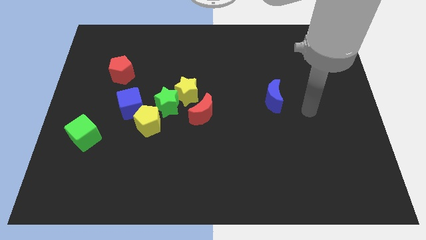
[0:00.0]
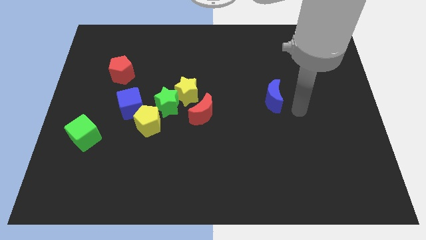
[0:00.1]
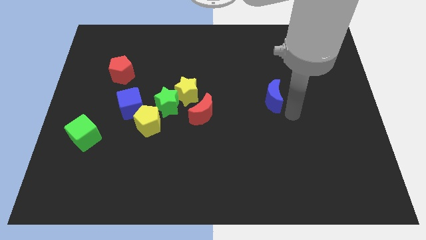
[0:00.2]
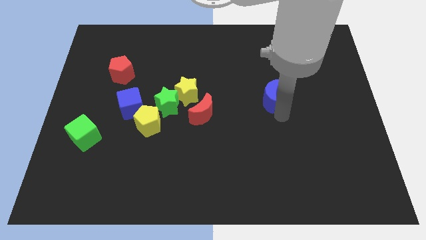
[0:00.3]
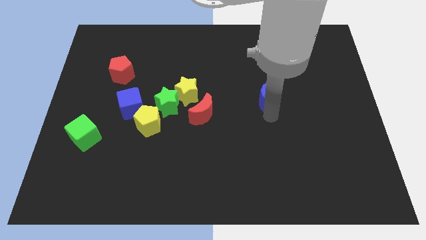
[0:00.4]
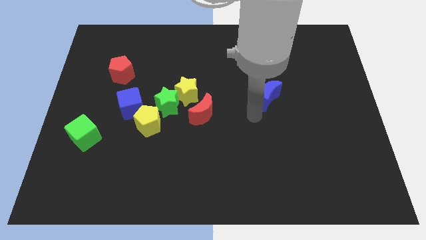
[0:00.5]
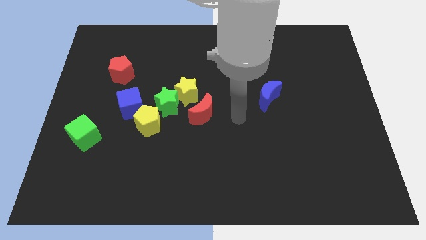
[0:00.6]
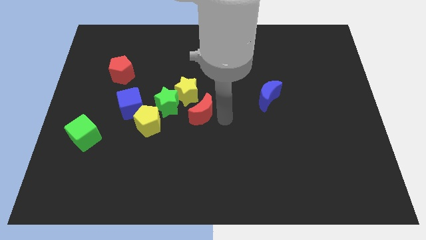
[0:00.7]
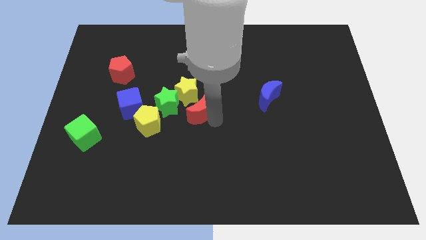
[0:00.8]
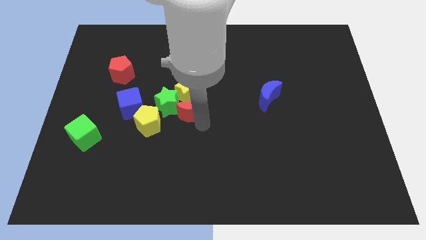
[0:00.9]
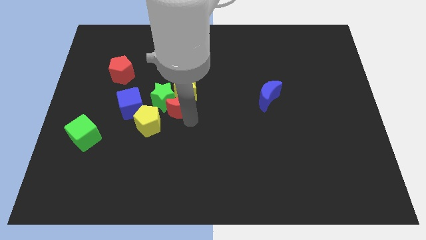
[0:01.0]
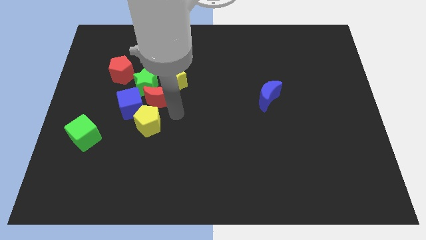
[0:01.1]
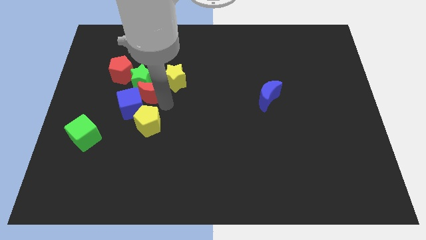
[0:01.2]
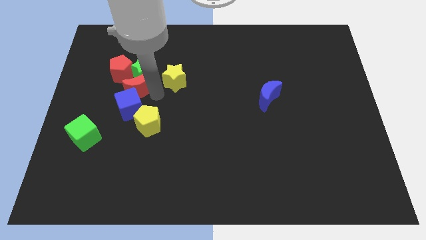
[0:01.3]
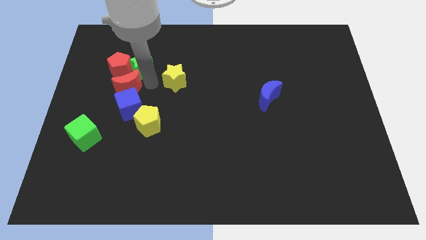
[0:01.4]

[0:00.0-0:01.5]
pull the yellow star apart from the green star and red moon

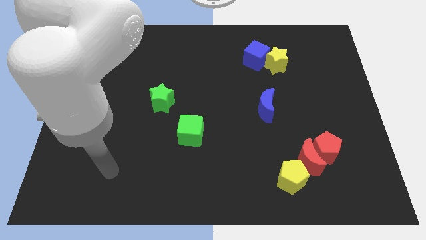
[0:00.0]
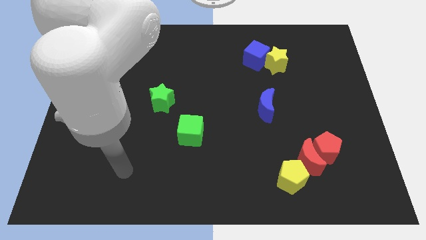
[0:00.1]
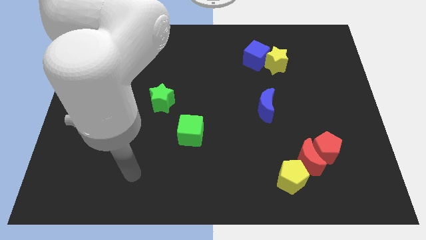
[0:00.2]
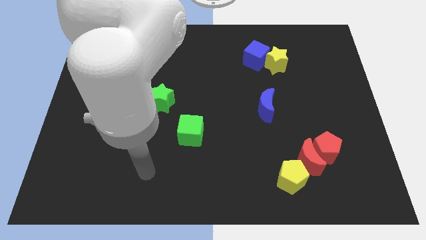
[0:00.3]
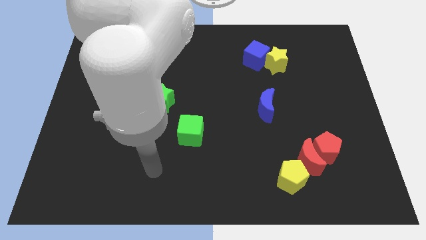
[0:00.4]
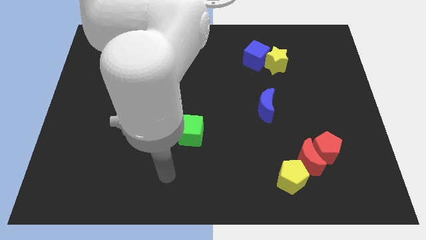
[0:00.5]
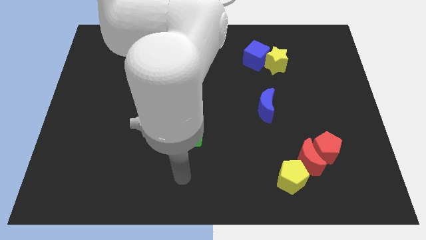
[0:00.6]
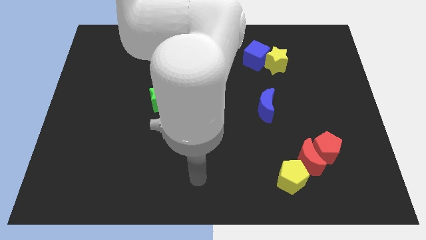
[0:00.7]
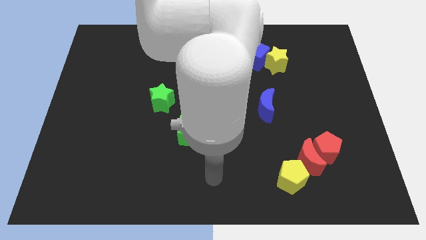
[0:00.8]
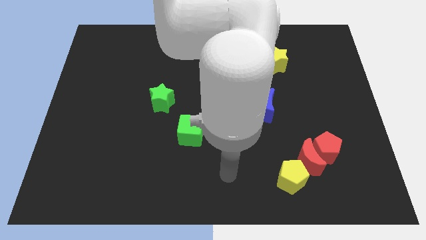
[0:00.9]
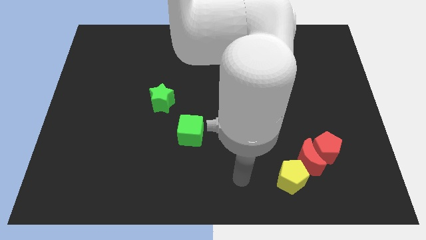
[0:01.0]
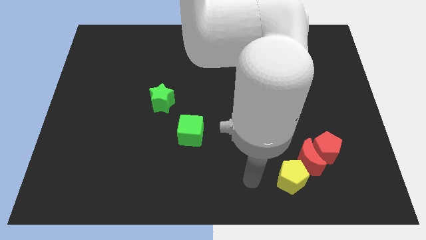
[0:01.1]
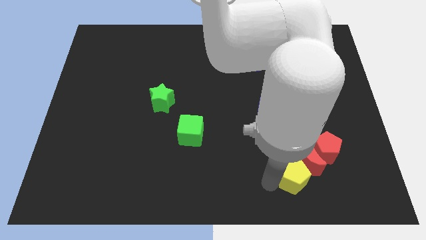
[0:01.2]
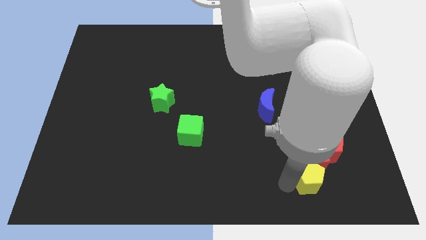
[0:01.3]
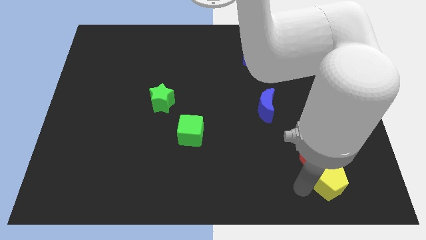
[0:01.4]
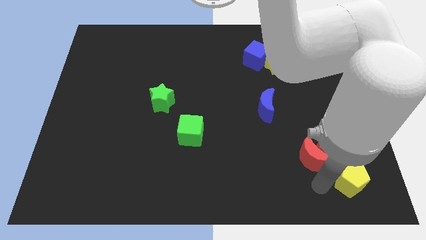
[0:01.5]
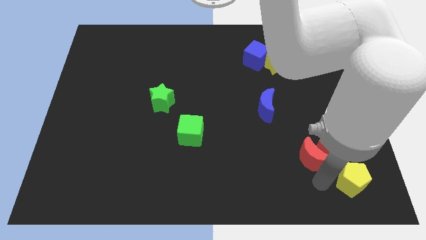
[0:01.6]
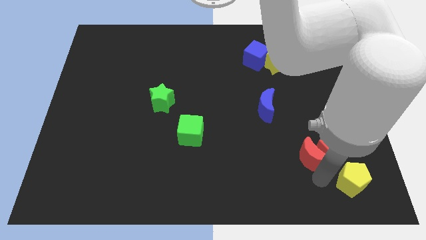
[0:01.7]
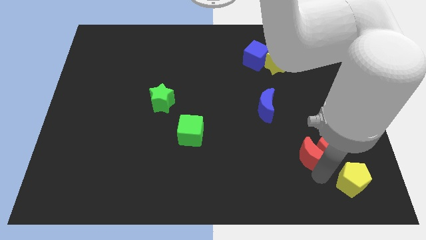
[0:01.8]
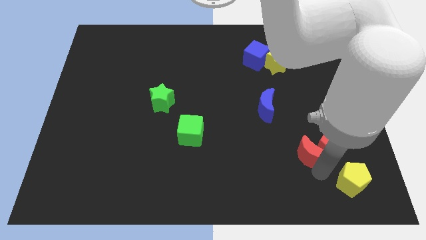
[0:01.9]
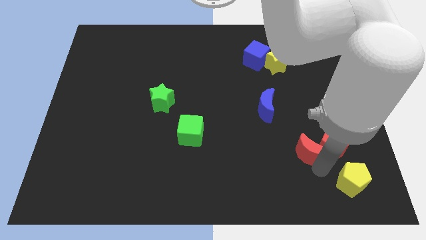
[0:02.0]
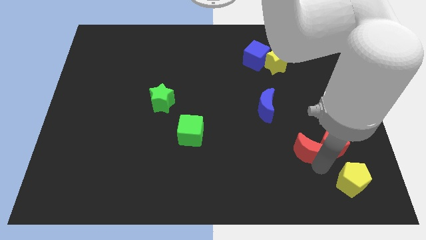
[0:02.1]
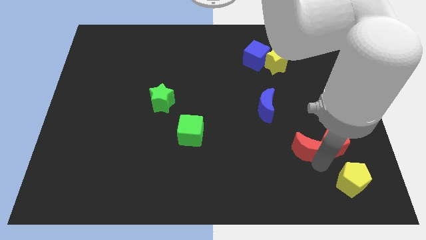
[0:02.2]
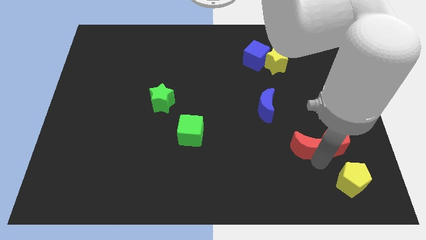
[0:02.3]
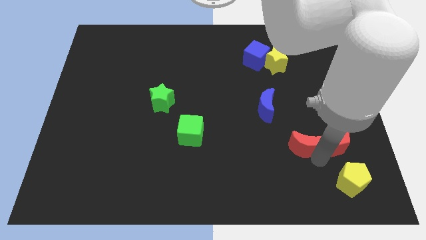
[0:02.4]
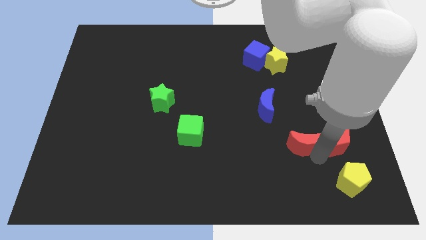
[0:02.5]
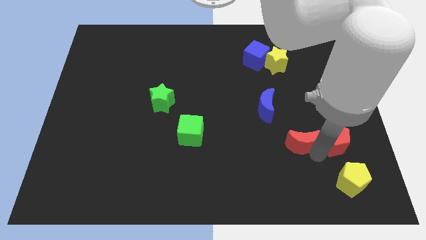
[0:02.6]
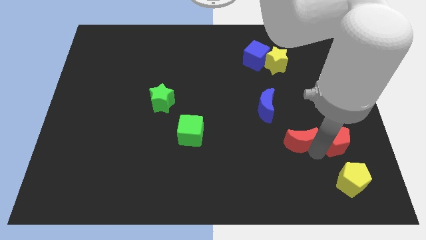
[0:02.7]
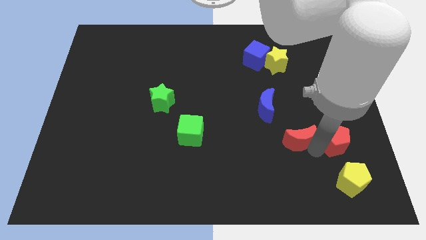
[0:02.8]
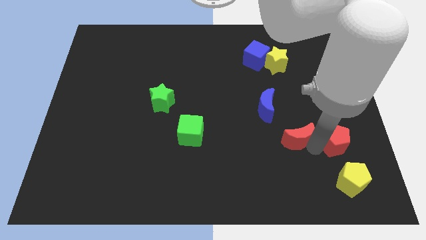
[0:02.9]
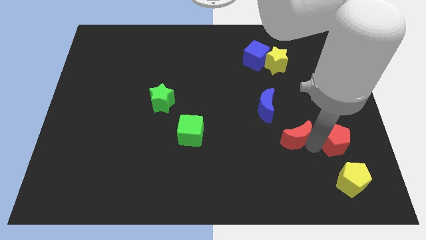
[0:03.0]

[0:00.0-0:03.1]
pull the red moon apart from the red pentagon and yellow pentagon

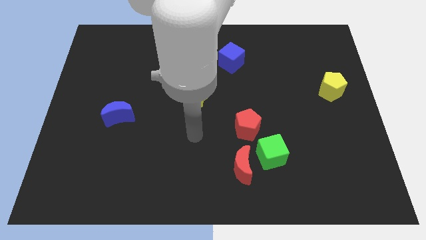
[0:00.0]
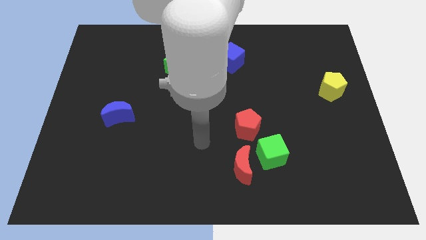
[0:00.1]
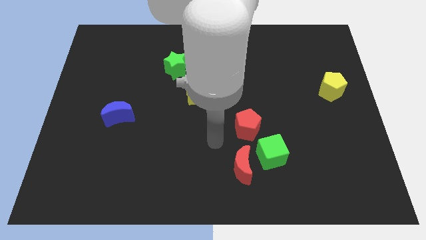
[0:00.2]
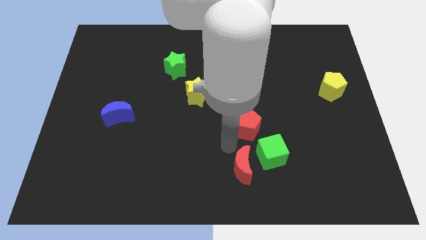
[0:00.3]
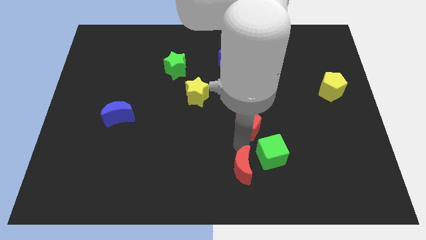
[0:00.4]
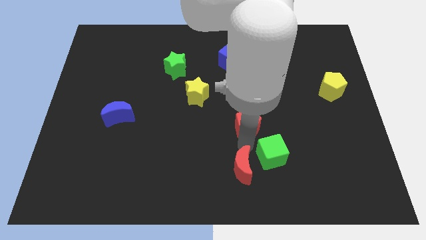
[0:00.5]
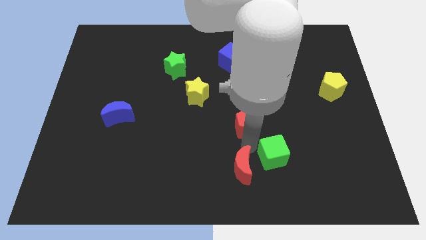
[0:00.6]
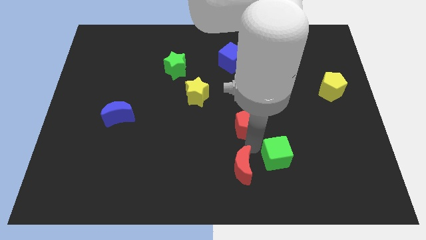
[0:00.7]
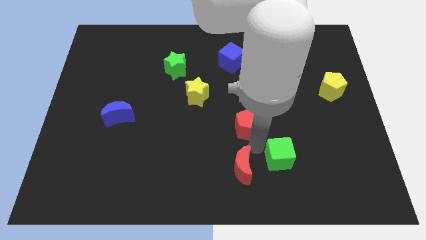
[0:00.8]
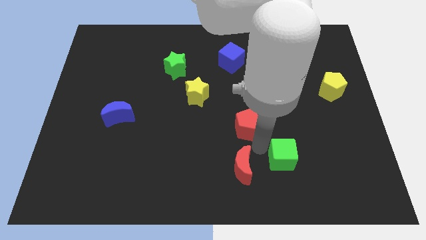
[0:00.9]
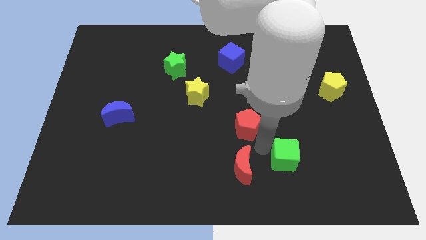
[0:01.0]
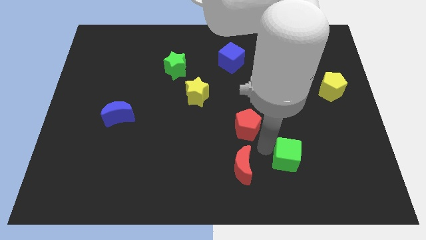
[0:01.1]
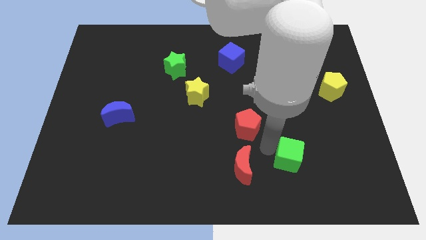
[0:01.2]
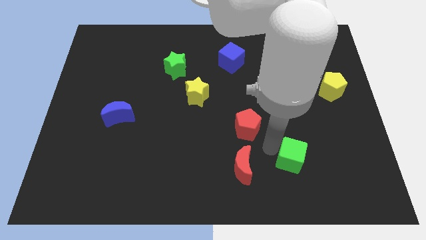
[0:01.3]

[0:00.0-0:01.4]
move the green cube away from the red moon and red pentagon

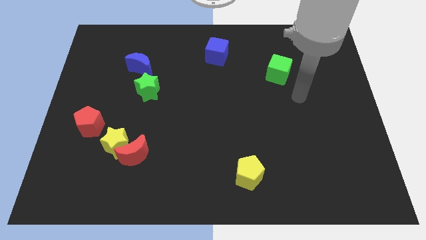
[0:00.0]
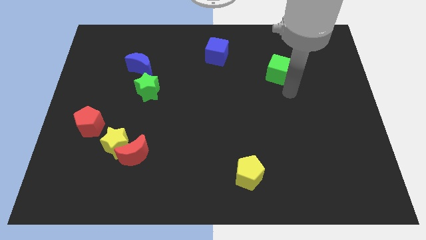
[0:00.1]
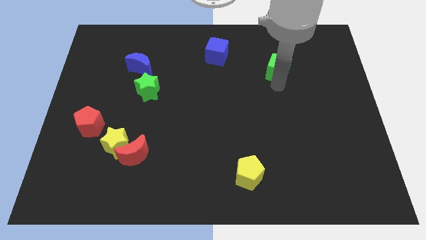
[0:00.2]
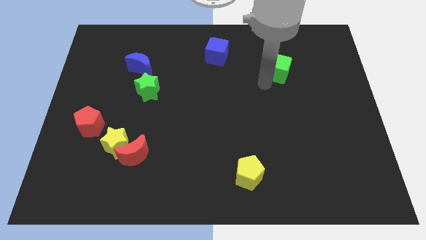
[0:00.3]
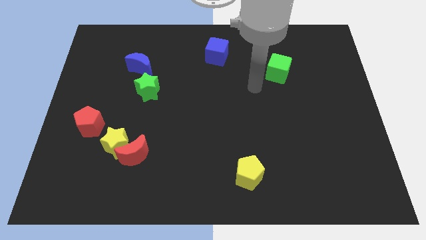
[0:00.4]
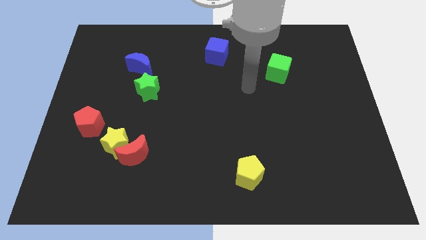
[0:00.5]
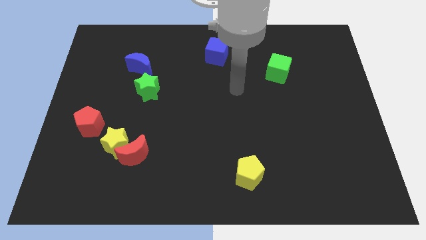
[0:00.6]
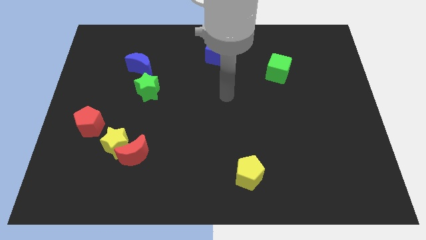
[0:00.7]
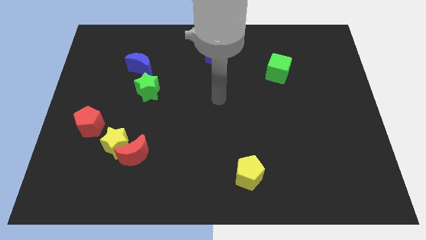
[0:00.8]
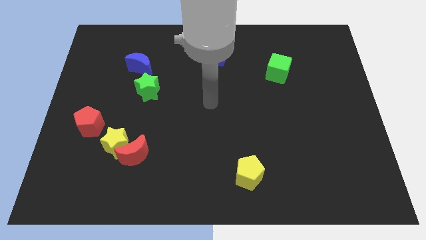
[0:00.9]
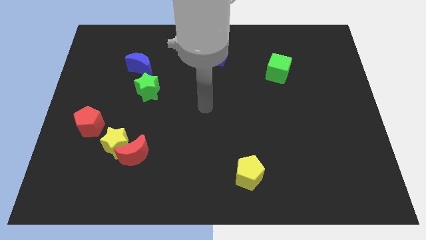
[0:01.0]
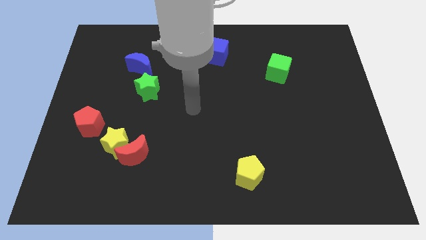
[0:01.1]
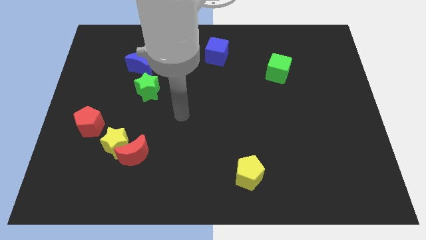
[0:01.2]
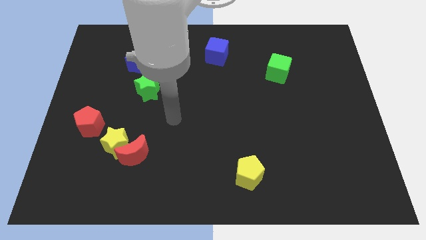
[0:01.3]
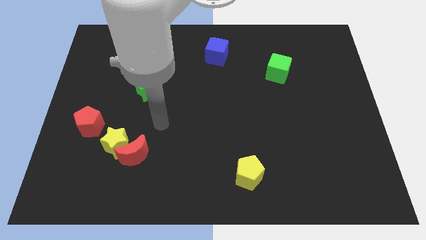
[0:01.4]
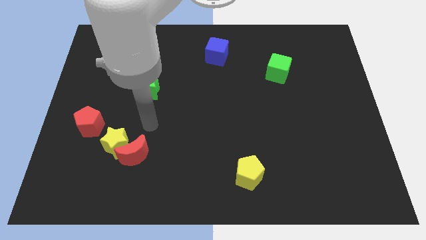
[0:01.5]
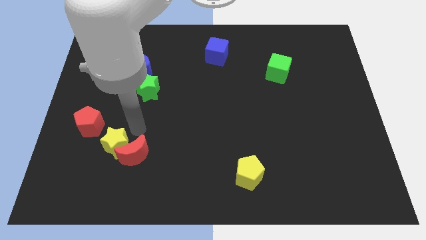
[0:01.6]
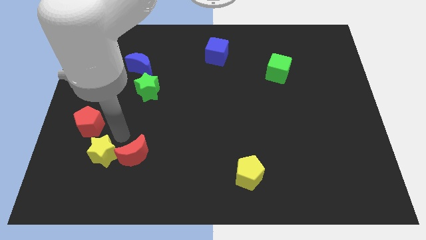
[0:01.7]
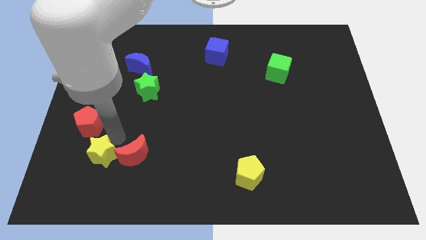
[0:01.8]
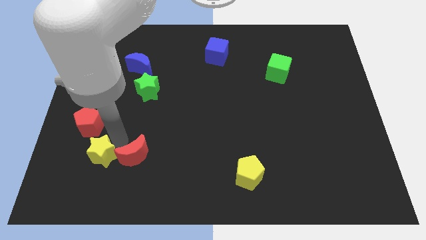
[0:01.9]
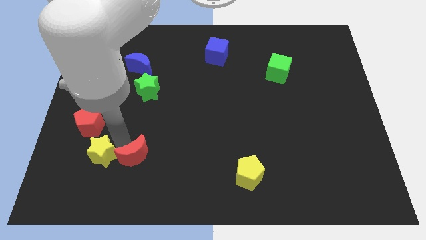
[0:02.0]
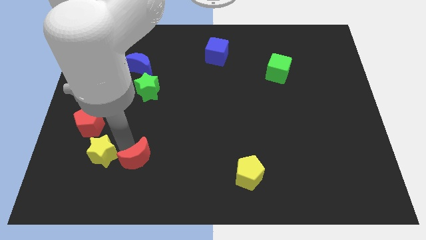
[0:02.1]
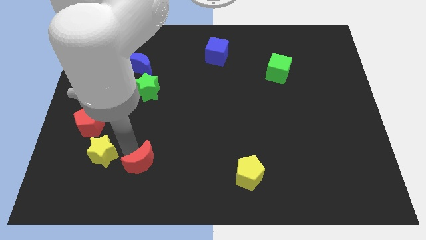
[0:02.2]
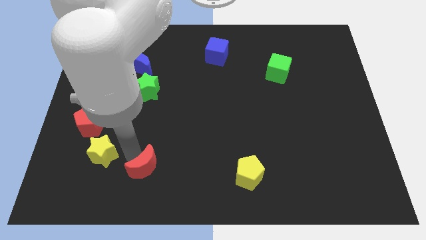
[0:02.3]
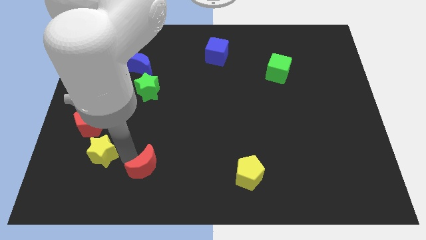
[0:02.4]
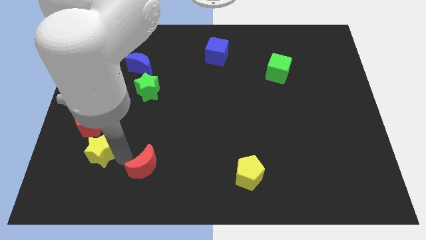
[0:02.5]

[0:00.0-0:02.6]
pull the red moon apart from the yellow star

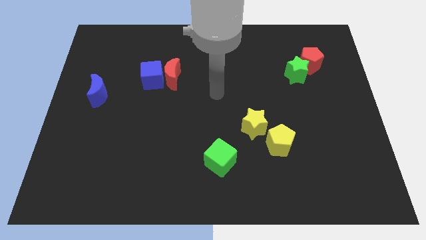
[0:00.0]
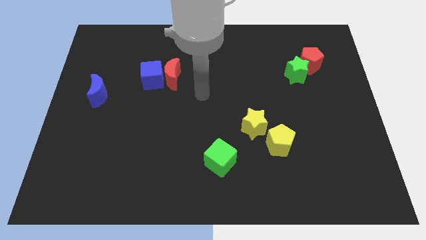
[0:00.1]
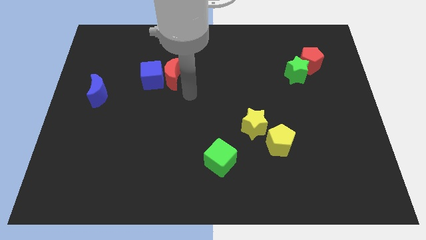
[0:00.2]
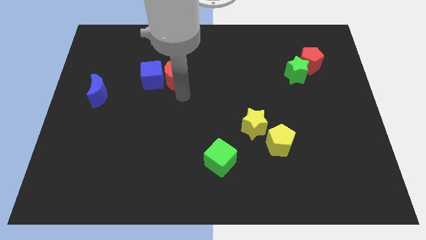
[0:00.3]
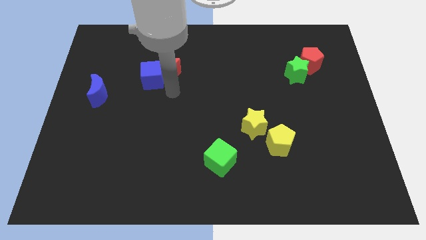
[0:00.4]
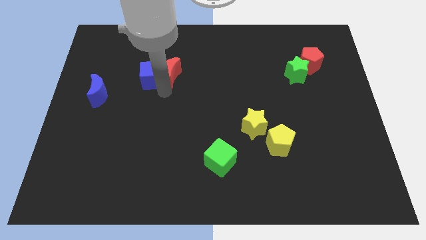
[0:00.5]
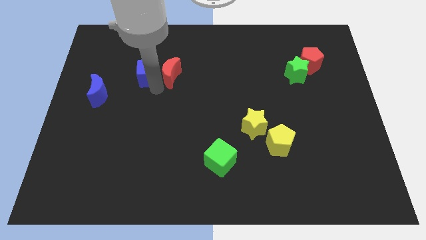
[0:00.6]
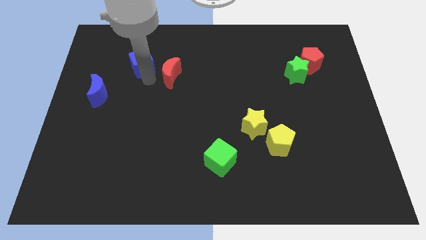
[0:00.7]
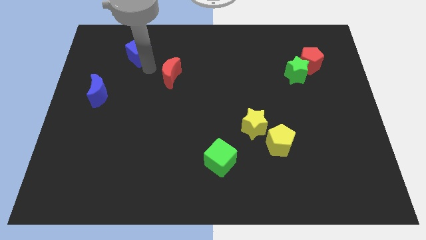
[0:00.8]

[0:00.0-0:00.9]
move the red moon away from the blue cube
